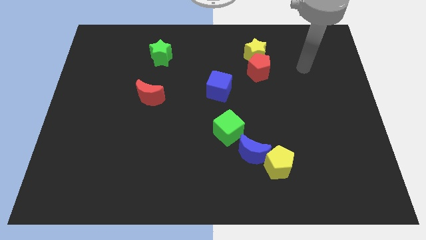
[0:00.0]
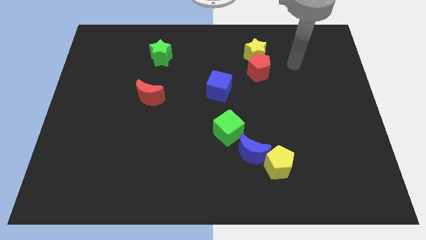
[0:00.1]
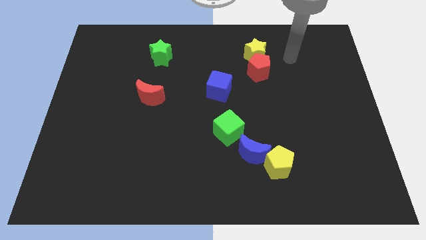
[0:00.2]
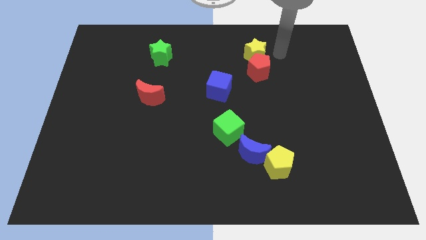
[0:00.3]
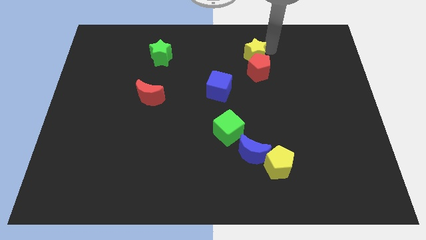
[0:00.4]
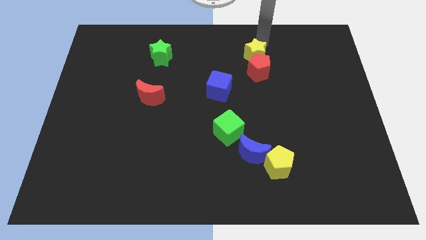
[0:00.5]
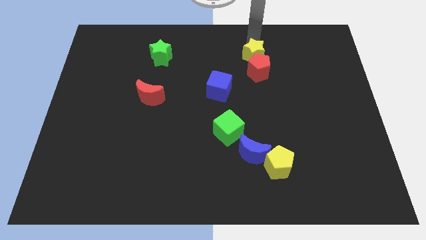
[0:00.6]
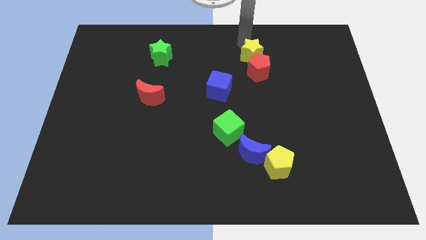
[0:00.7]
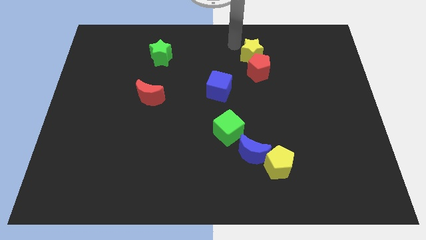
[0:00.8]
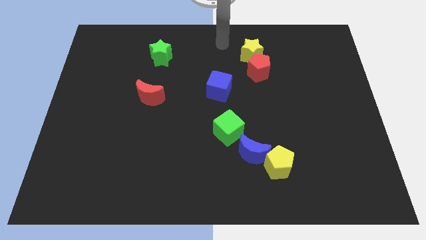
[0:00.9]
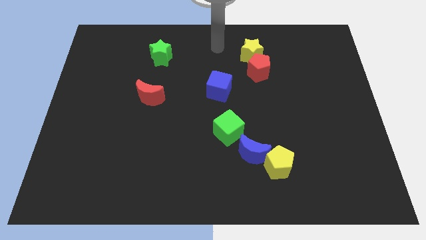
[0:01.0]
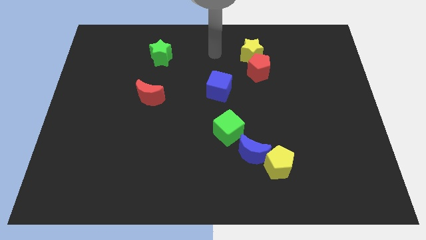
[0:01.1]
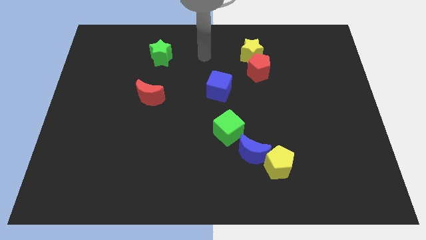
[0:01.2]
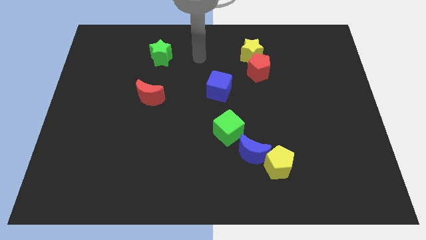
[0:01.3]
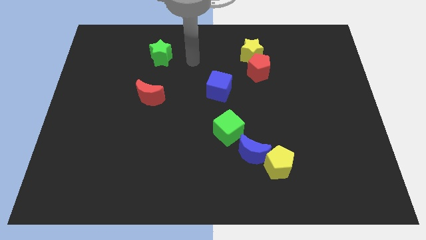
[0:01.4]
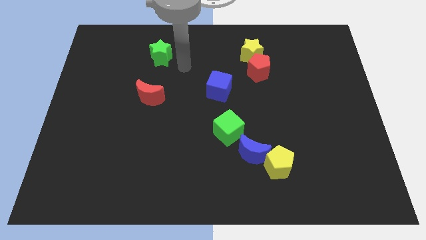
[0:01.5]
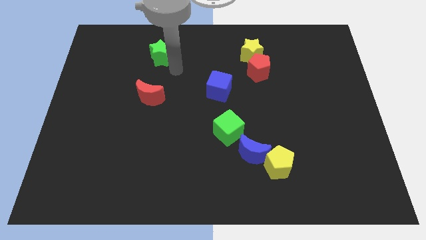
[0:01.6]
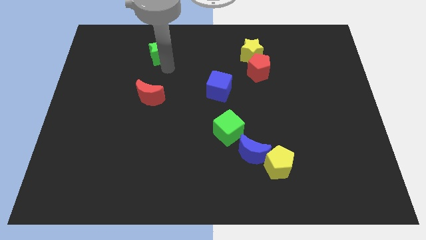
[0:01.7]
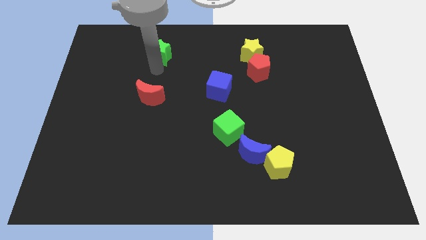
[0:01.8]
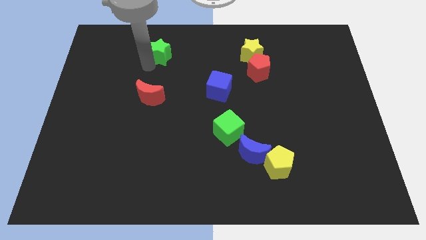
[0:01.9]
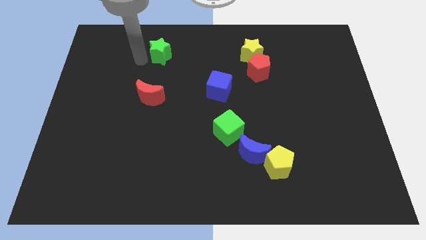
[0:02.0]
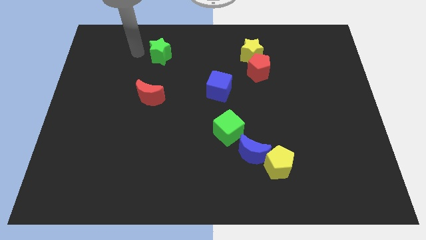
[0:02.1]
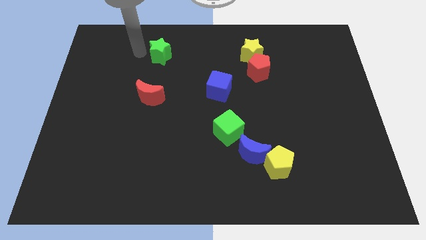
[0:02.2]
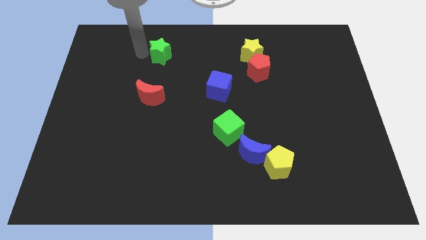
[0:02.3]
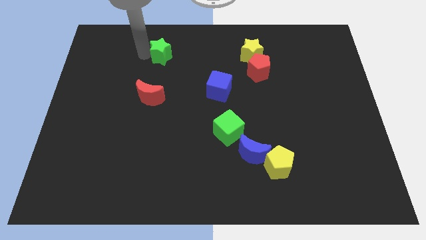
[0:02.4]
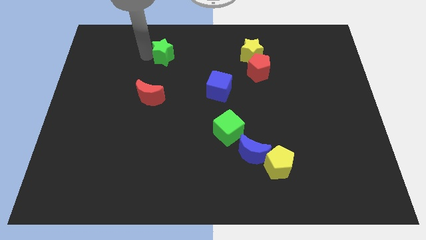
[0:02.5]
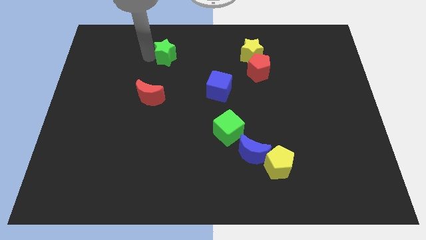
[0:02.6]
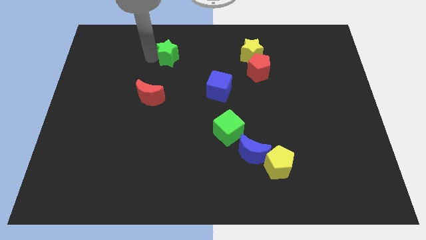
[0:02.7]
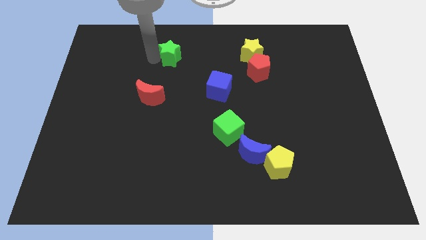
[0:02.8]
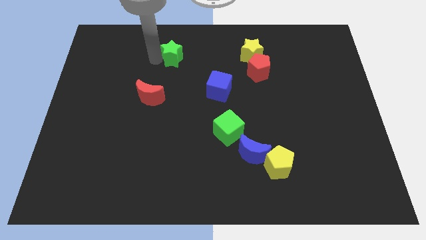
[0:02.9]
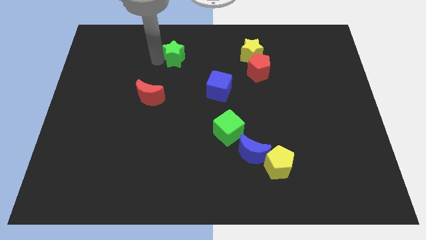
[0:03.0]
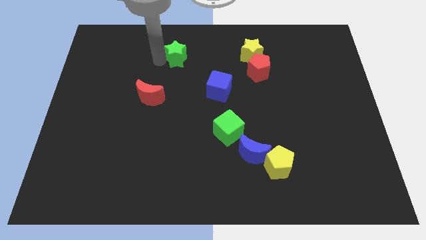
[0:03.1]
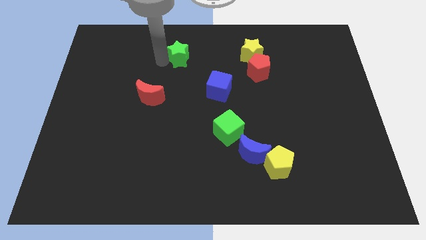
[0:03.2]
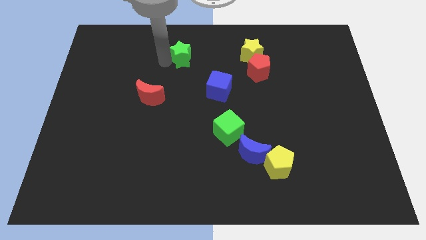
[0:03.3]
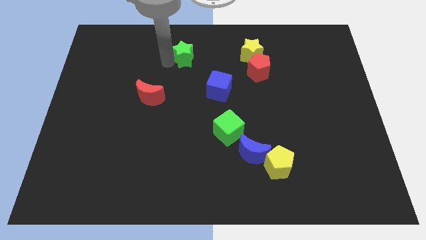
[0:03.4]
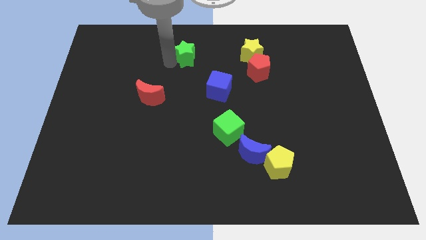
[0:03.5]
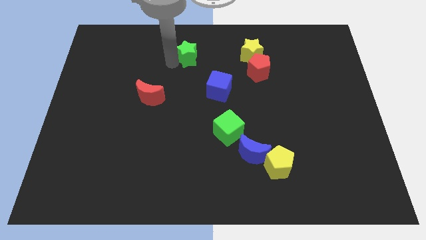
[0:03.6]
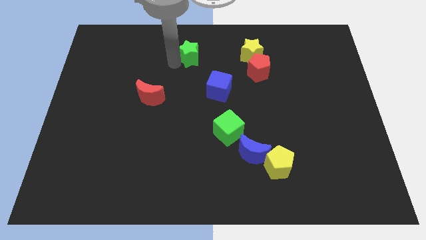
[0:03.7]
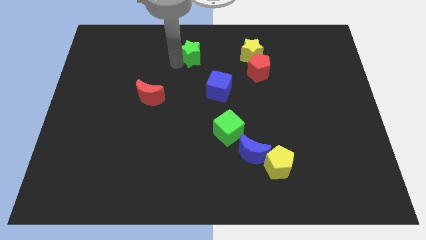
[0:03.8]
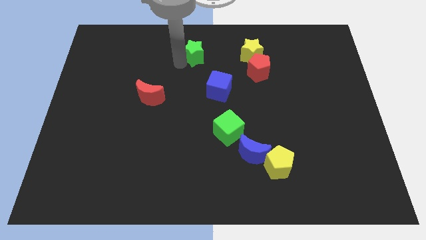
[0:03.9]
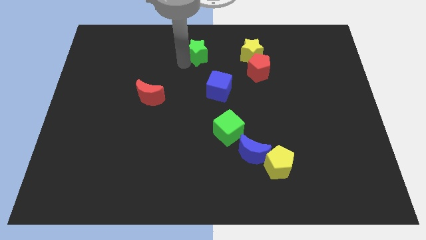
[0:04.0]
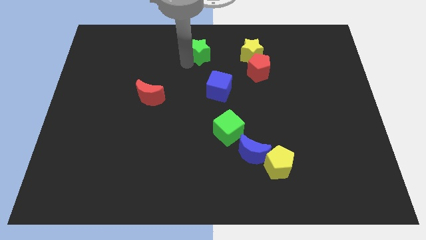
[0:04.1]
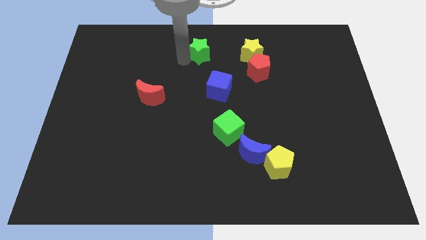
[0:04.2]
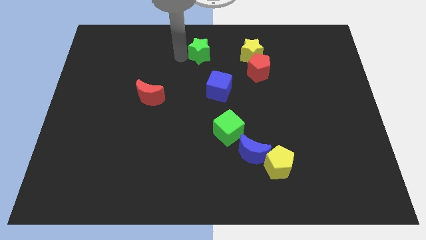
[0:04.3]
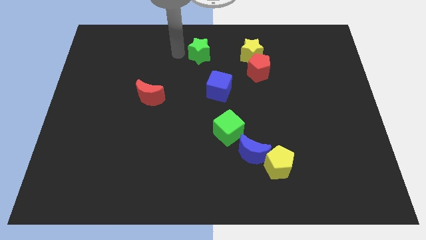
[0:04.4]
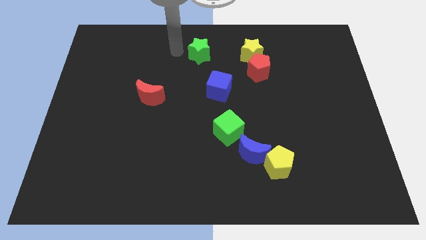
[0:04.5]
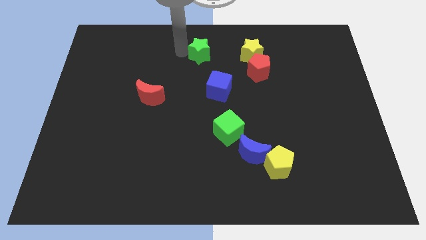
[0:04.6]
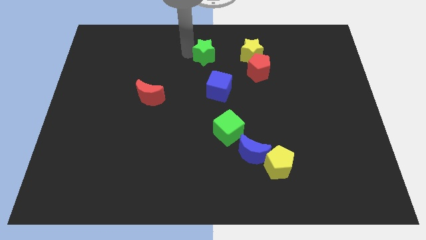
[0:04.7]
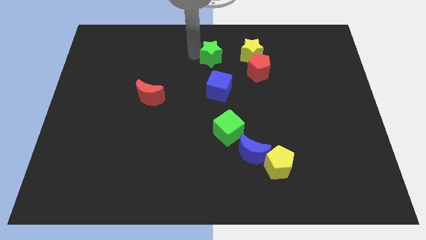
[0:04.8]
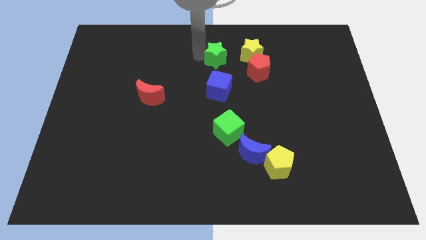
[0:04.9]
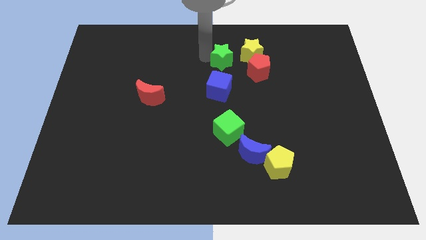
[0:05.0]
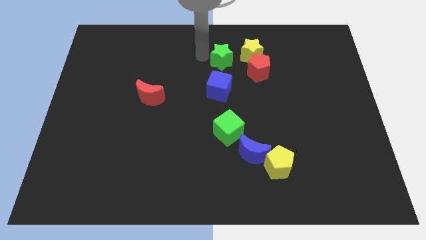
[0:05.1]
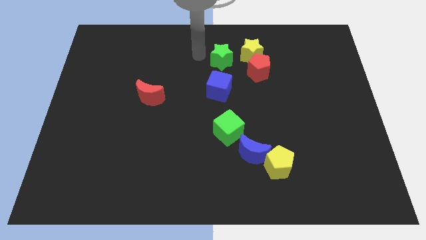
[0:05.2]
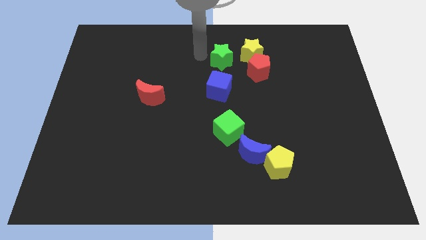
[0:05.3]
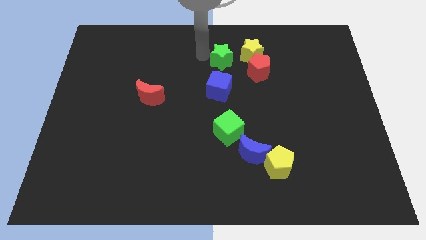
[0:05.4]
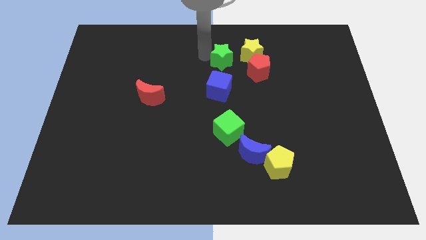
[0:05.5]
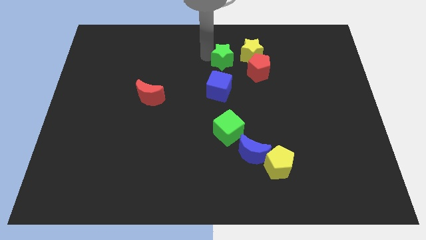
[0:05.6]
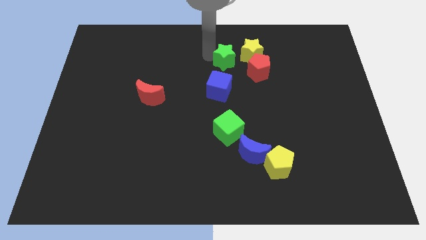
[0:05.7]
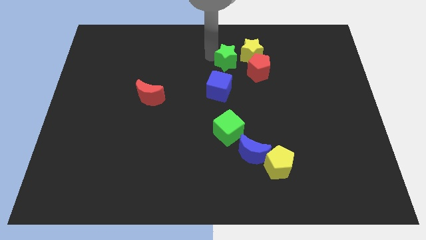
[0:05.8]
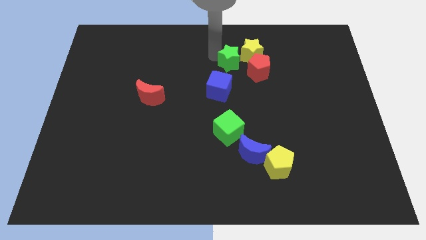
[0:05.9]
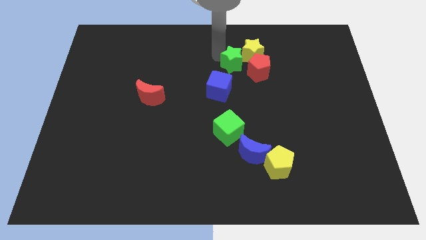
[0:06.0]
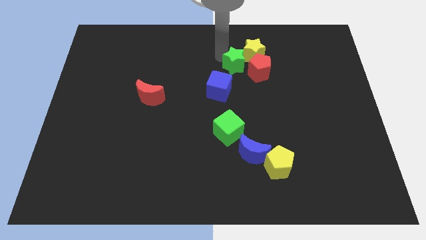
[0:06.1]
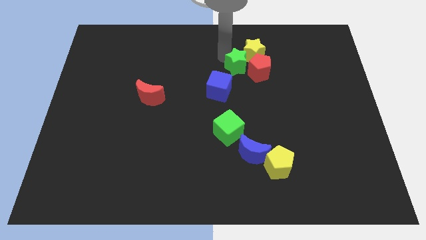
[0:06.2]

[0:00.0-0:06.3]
slide the green star towards the red pentagon
